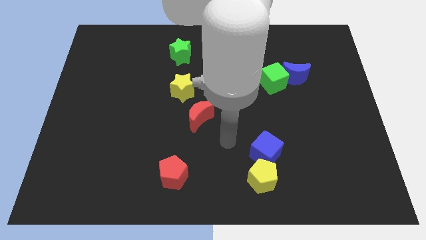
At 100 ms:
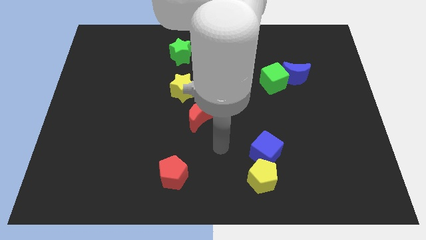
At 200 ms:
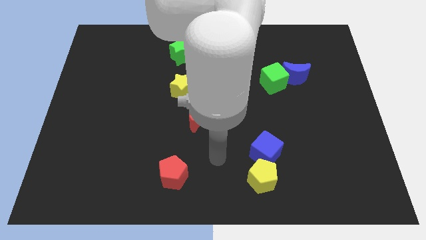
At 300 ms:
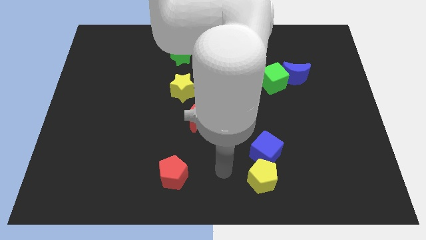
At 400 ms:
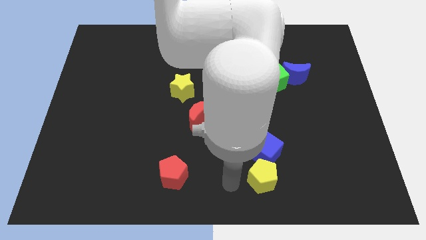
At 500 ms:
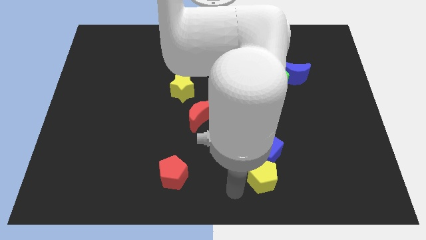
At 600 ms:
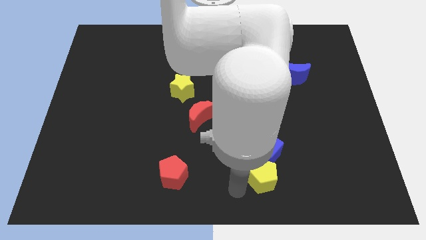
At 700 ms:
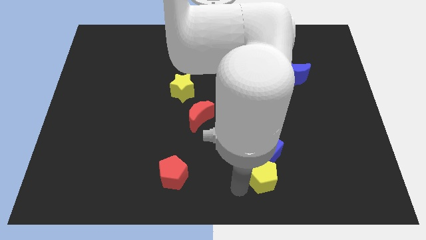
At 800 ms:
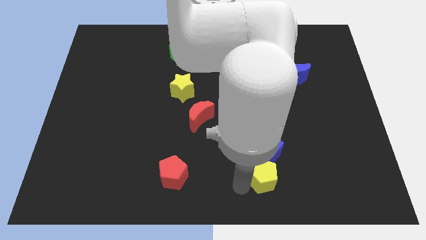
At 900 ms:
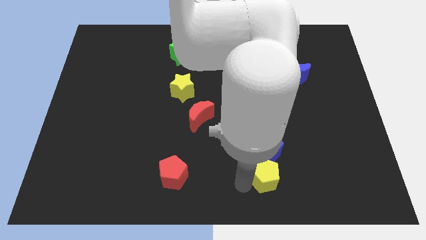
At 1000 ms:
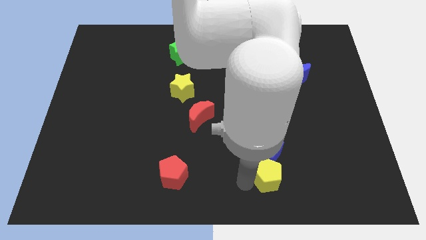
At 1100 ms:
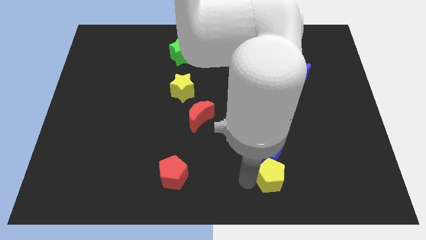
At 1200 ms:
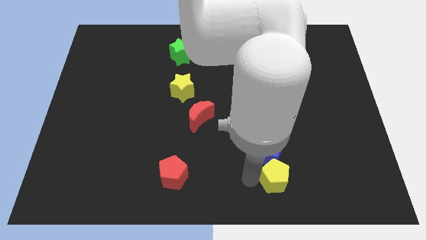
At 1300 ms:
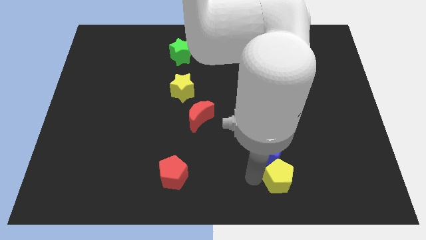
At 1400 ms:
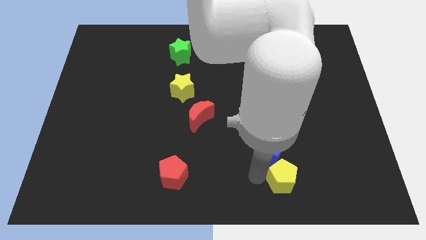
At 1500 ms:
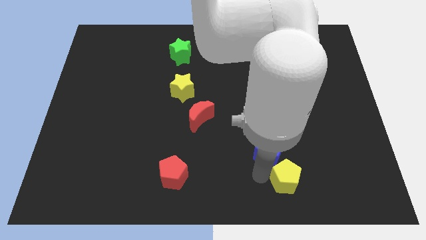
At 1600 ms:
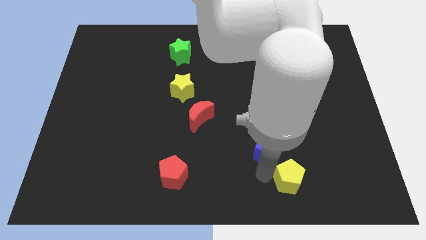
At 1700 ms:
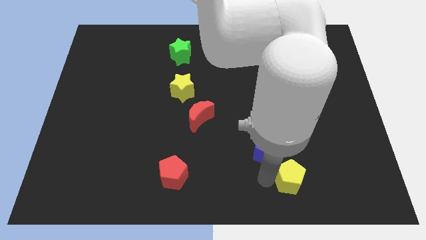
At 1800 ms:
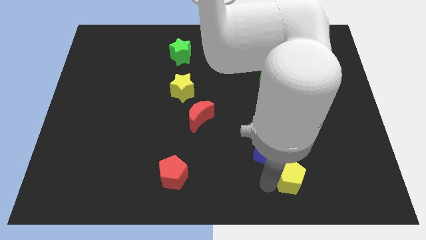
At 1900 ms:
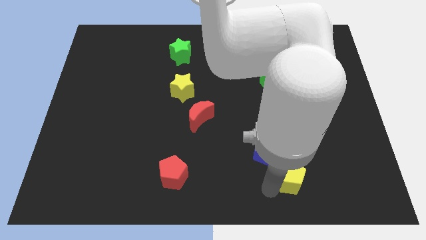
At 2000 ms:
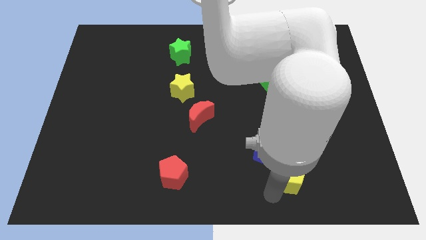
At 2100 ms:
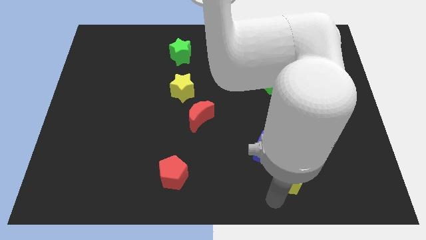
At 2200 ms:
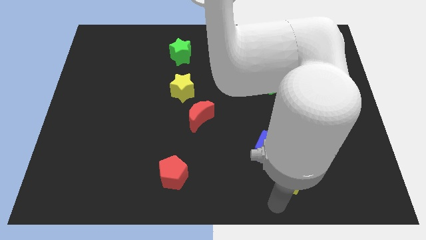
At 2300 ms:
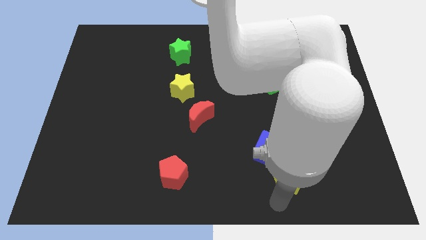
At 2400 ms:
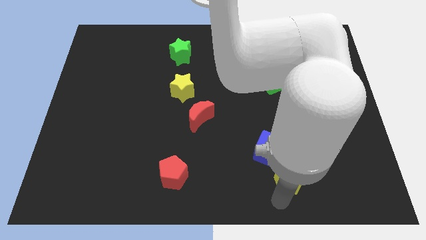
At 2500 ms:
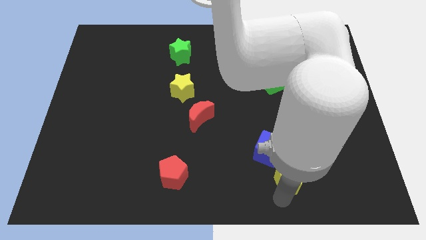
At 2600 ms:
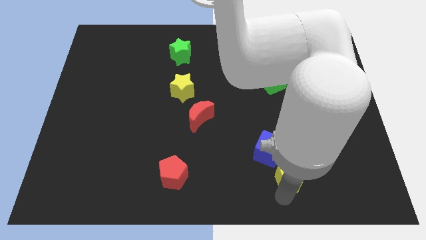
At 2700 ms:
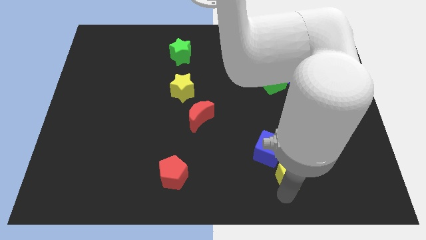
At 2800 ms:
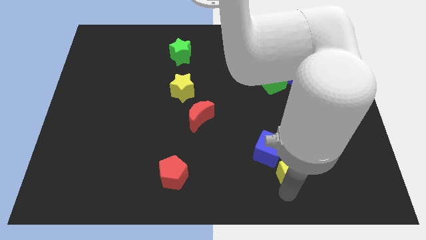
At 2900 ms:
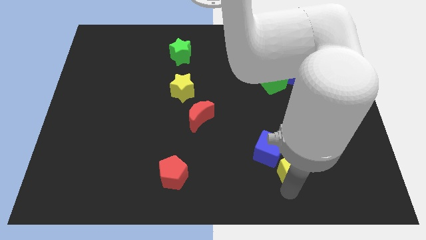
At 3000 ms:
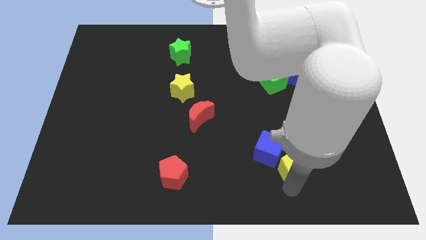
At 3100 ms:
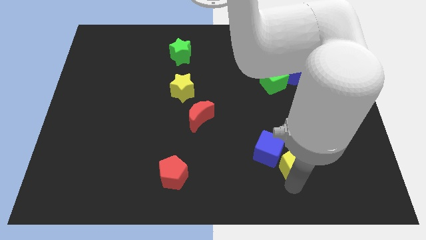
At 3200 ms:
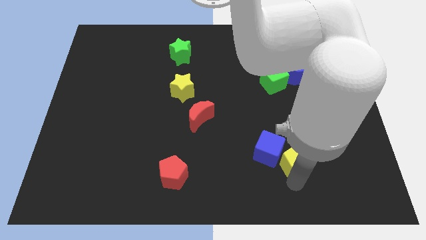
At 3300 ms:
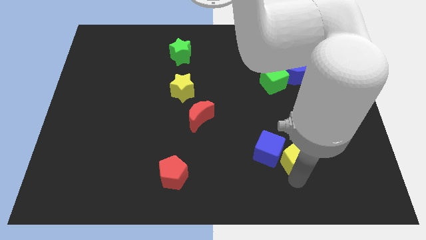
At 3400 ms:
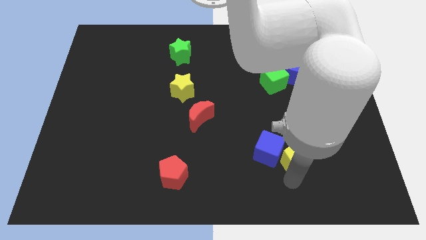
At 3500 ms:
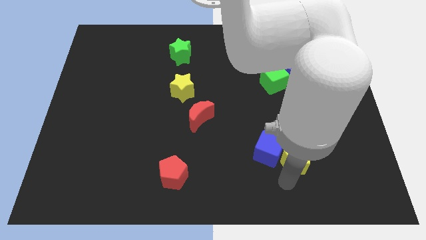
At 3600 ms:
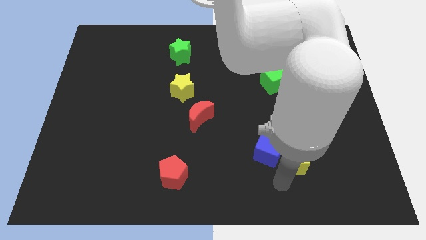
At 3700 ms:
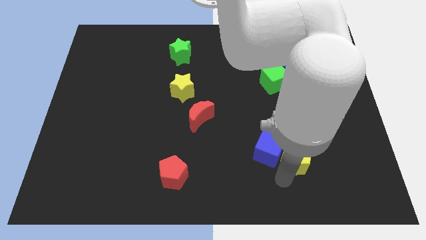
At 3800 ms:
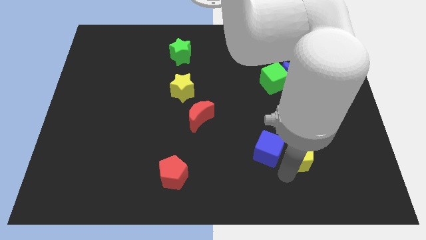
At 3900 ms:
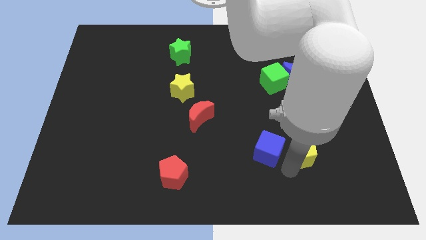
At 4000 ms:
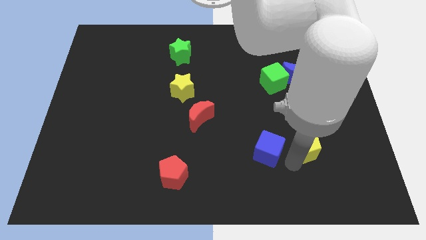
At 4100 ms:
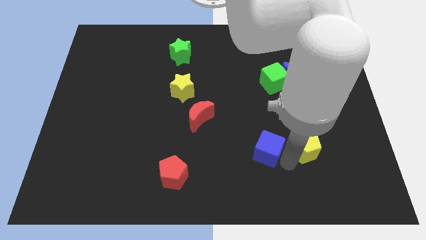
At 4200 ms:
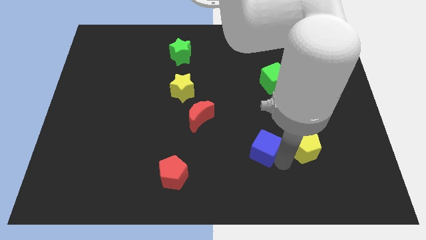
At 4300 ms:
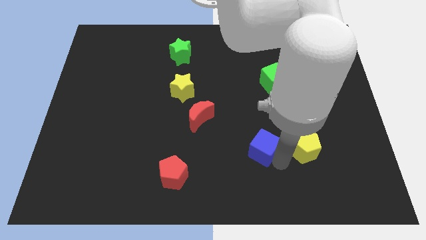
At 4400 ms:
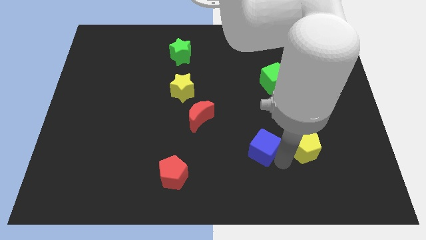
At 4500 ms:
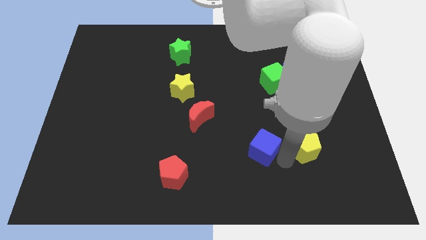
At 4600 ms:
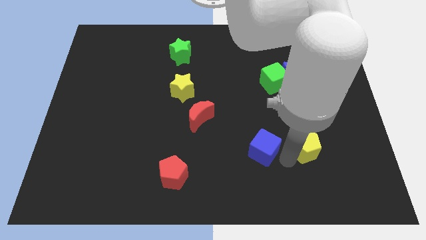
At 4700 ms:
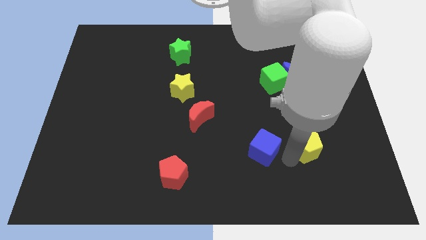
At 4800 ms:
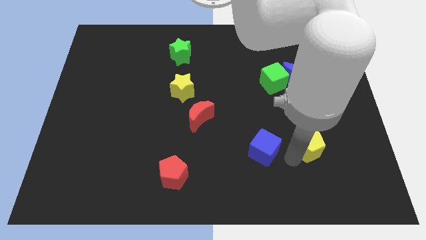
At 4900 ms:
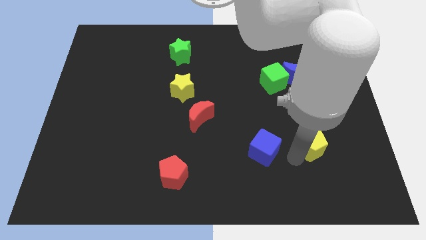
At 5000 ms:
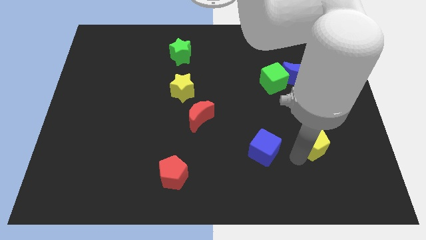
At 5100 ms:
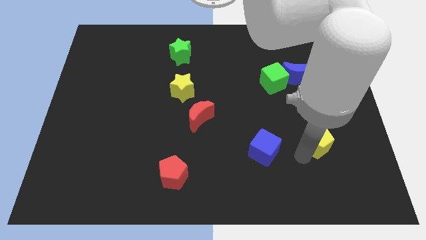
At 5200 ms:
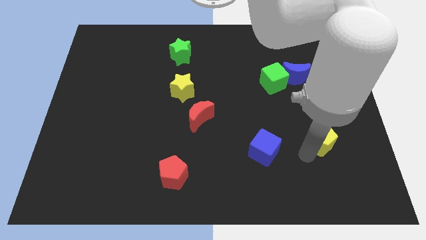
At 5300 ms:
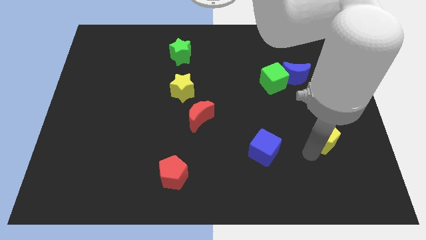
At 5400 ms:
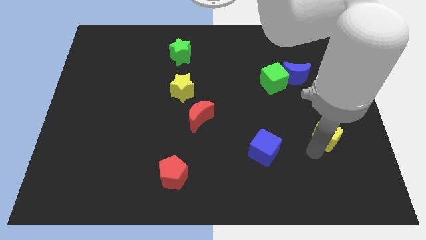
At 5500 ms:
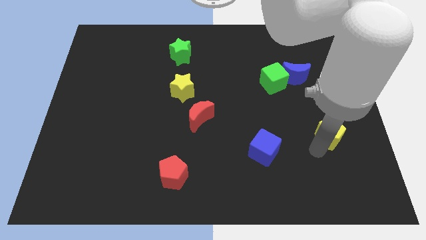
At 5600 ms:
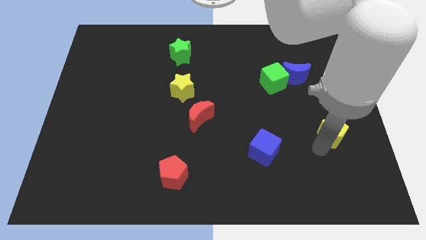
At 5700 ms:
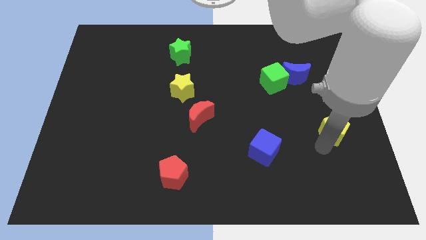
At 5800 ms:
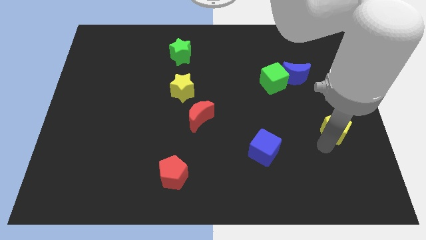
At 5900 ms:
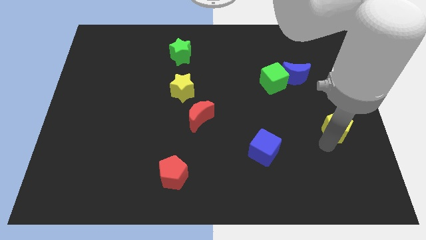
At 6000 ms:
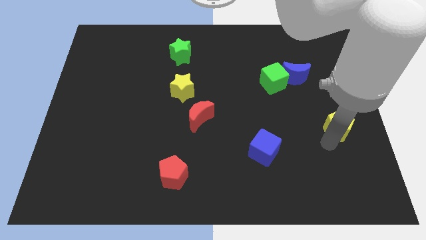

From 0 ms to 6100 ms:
put the yellow pentagon to the center right

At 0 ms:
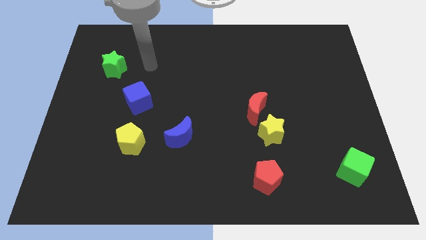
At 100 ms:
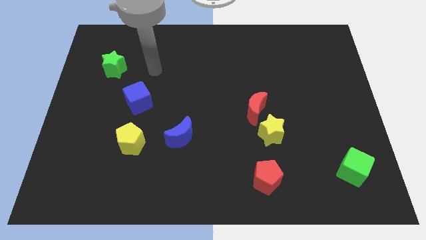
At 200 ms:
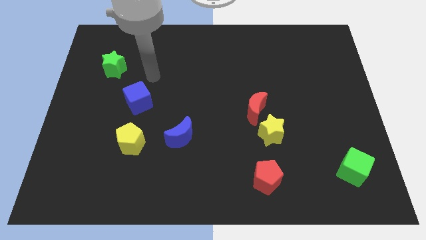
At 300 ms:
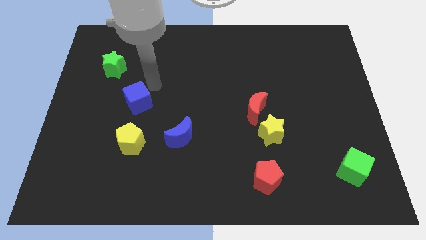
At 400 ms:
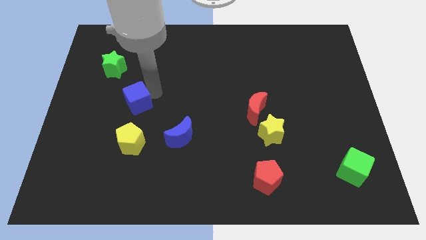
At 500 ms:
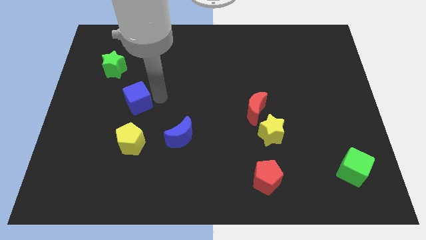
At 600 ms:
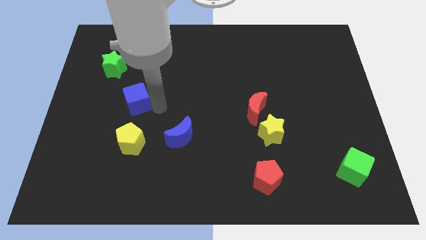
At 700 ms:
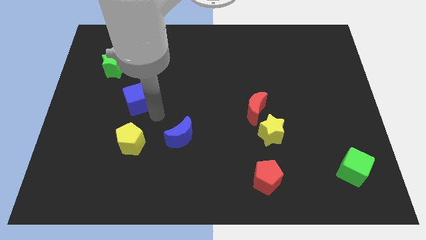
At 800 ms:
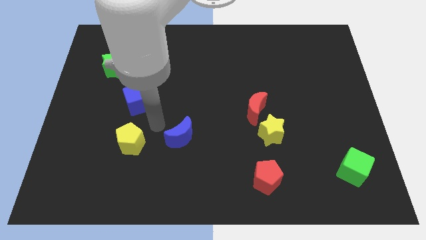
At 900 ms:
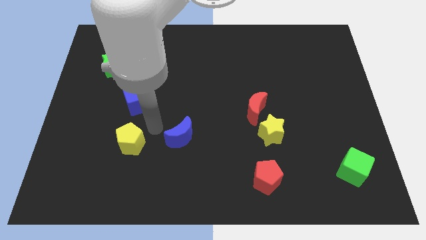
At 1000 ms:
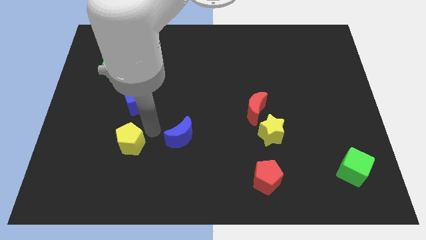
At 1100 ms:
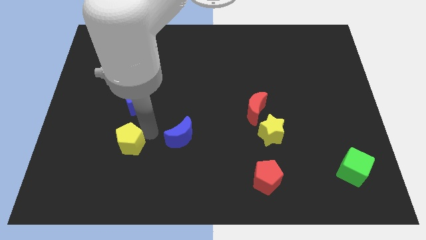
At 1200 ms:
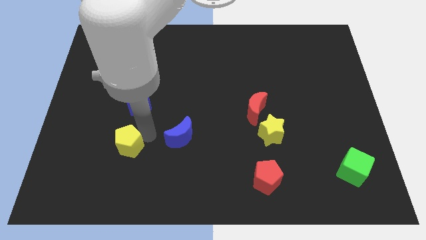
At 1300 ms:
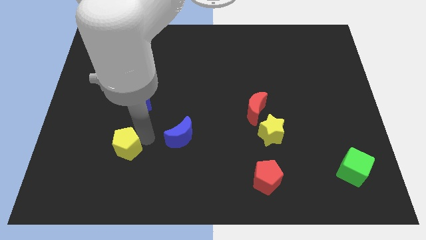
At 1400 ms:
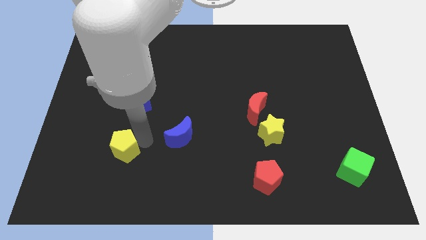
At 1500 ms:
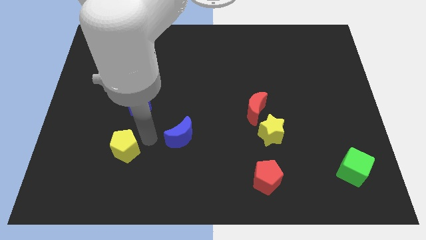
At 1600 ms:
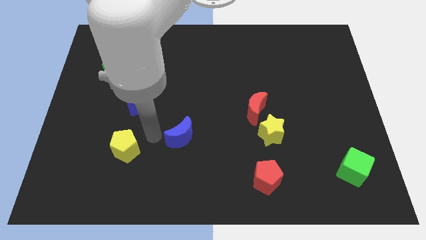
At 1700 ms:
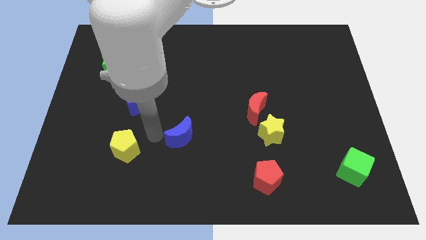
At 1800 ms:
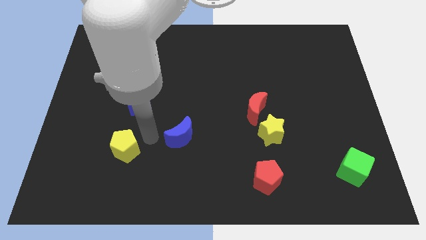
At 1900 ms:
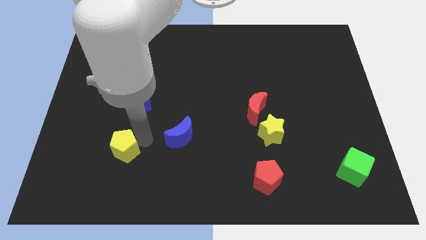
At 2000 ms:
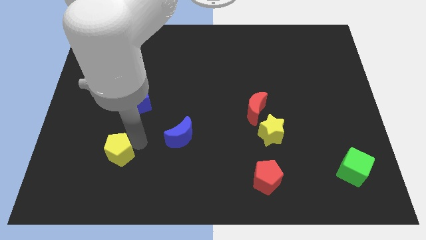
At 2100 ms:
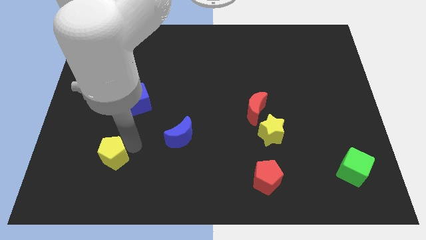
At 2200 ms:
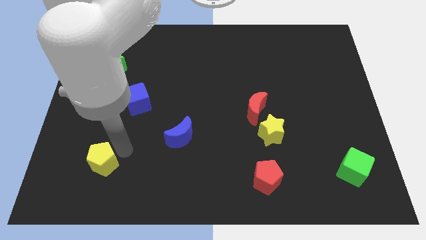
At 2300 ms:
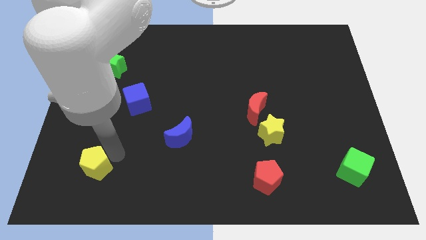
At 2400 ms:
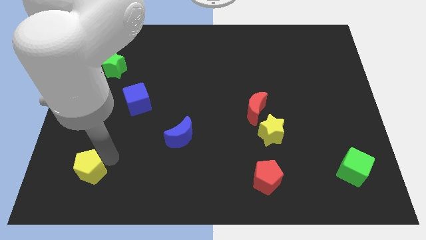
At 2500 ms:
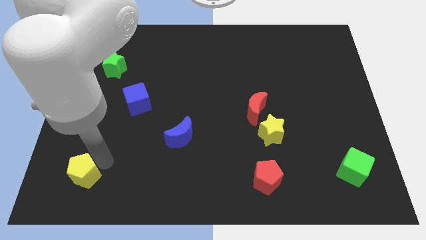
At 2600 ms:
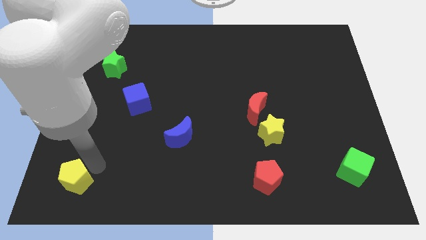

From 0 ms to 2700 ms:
put the yellow pentagon to the lower left corner
